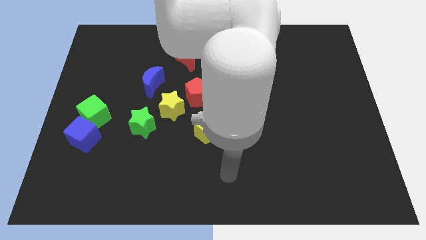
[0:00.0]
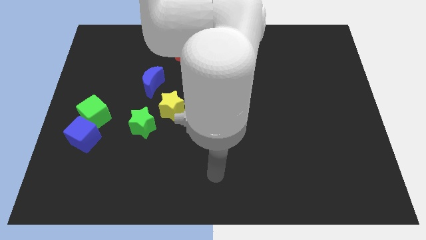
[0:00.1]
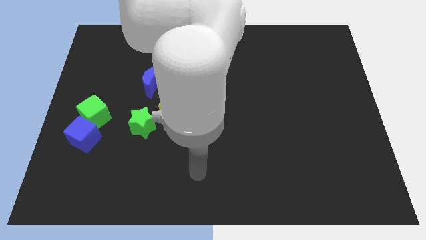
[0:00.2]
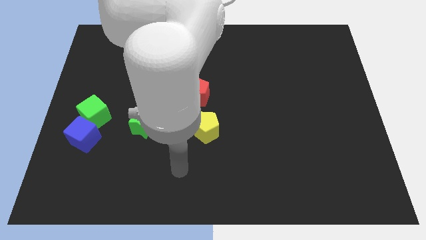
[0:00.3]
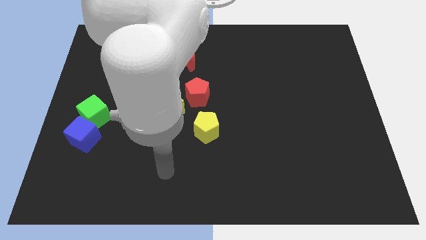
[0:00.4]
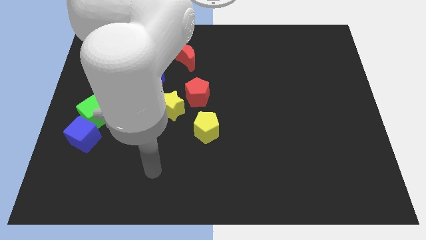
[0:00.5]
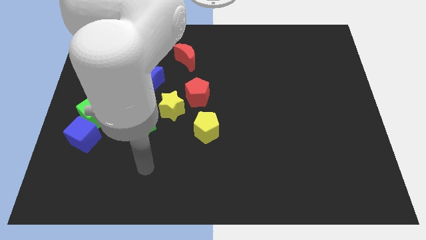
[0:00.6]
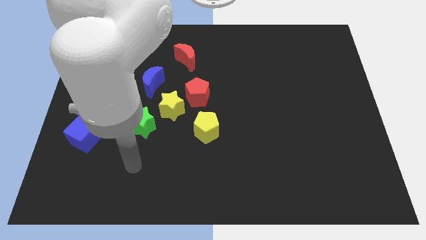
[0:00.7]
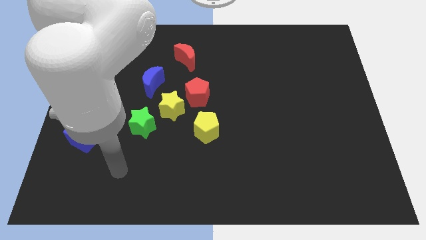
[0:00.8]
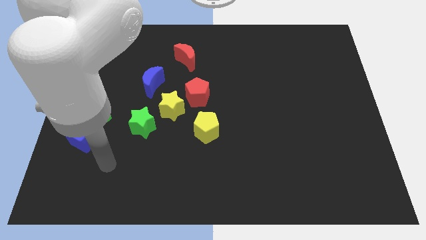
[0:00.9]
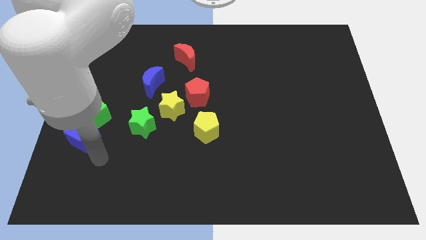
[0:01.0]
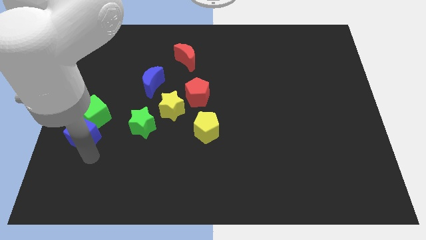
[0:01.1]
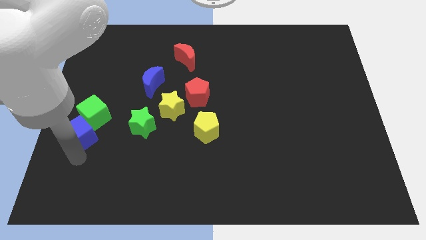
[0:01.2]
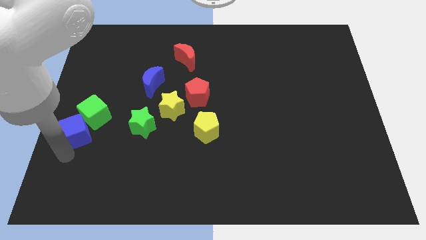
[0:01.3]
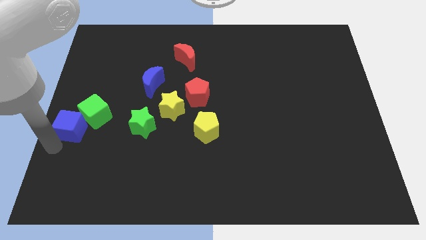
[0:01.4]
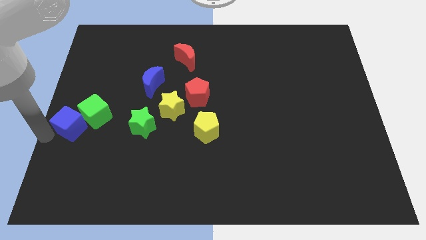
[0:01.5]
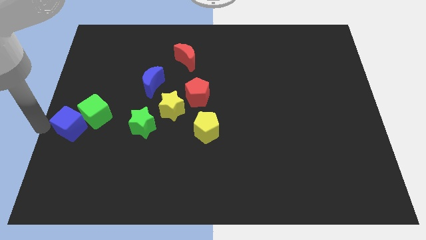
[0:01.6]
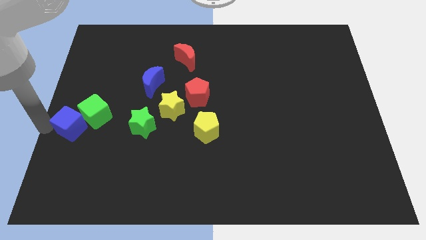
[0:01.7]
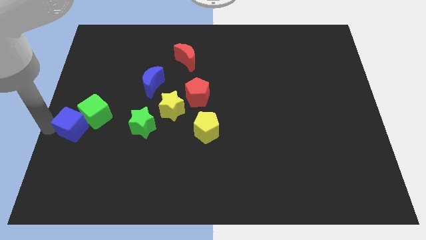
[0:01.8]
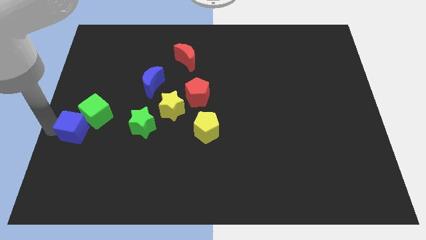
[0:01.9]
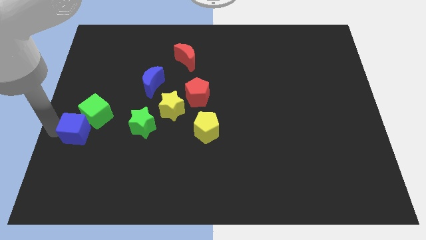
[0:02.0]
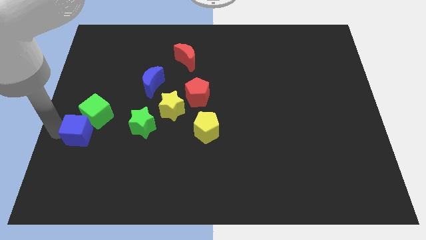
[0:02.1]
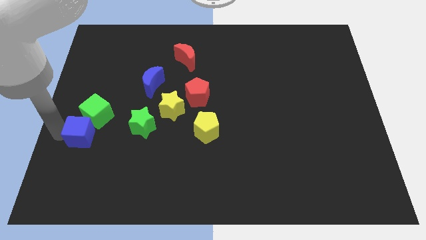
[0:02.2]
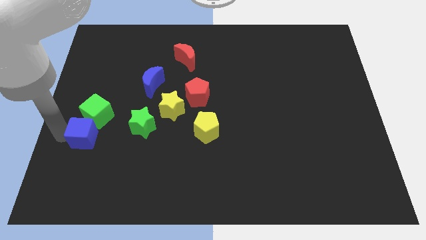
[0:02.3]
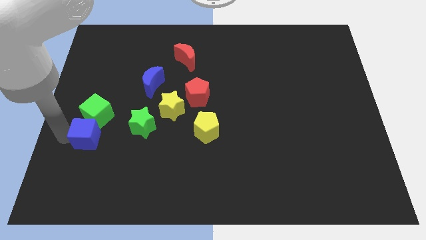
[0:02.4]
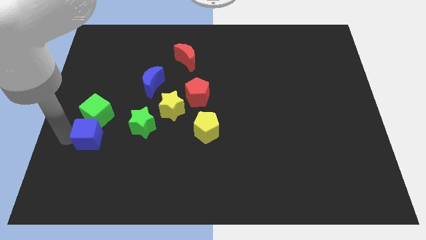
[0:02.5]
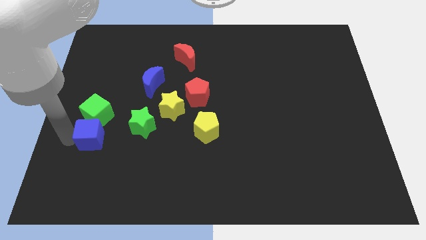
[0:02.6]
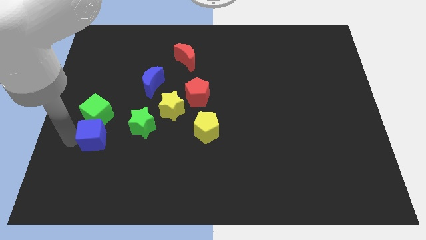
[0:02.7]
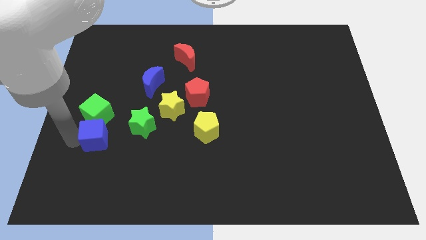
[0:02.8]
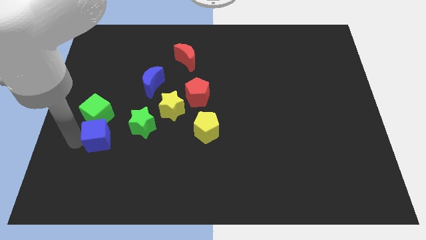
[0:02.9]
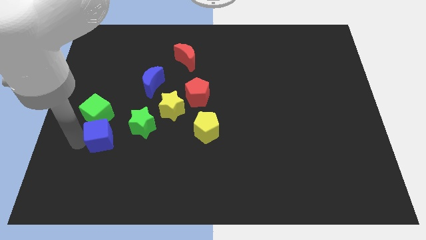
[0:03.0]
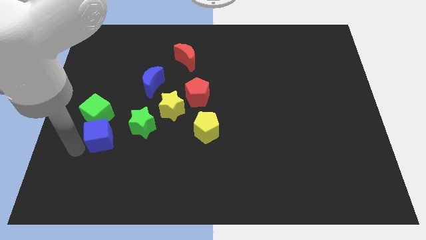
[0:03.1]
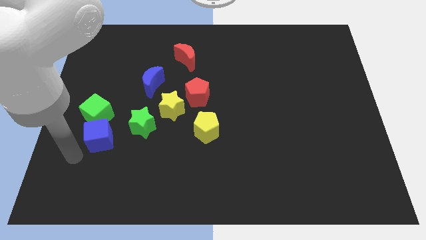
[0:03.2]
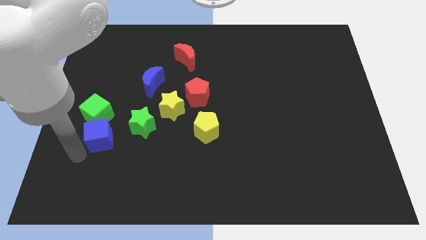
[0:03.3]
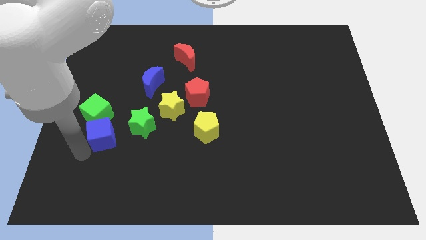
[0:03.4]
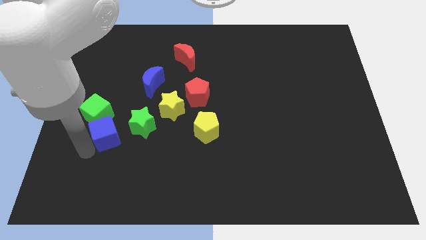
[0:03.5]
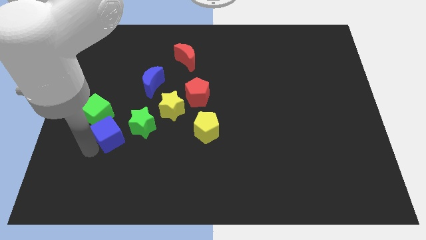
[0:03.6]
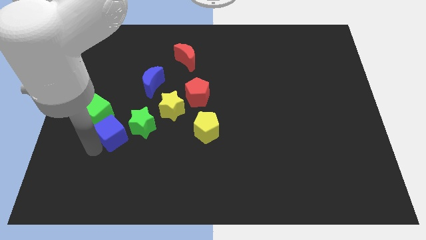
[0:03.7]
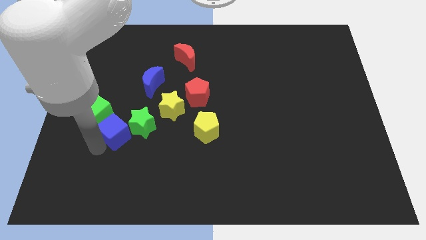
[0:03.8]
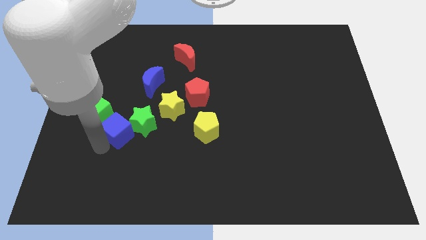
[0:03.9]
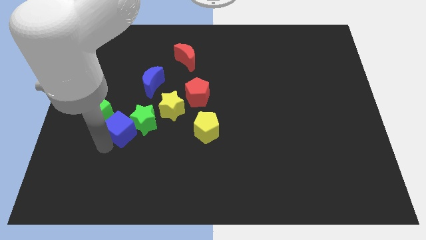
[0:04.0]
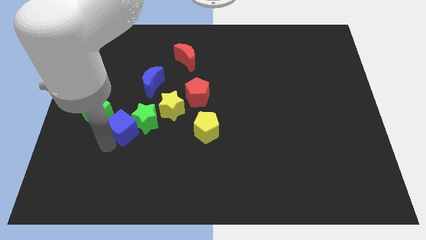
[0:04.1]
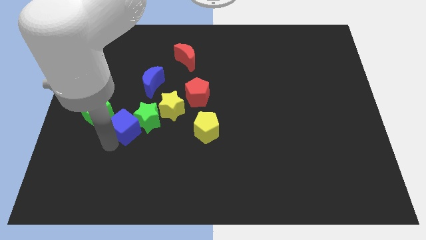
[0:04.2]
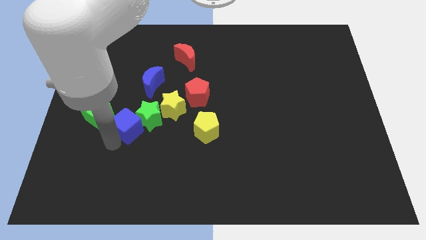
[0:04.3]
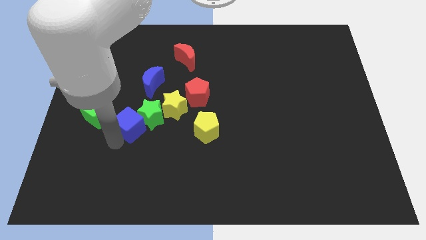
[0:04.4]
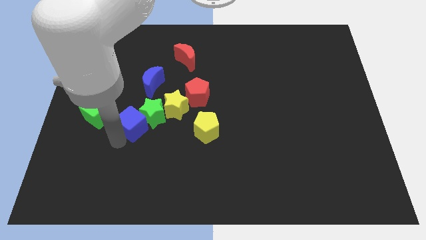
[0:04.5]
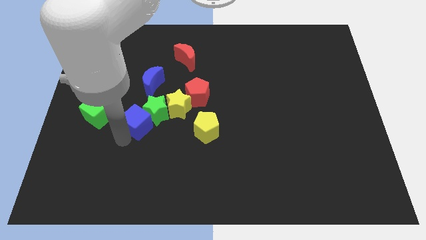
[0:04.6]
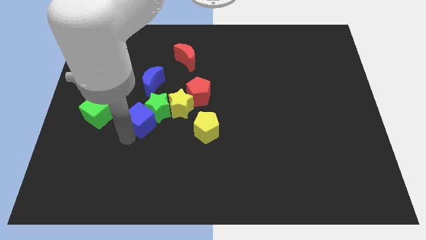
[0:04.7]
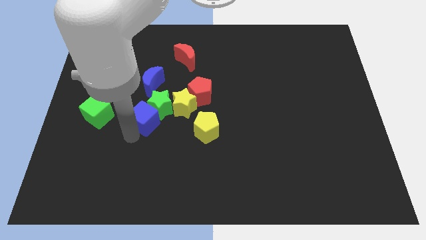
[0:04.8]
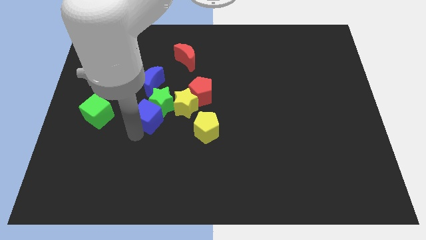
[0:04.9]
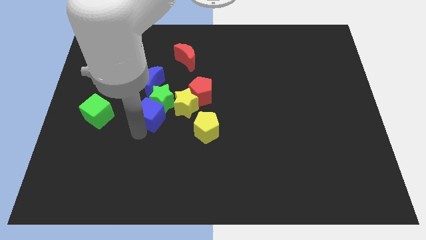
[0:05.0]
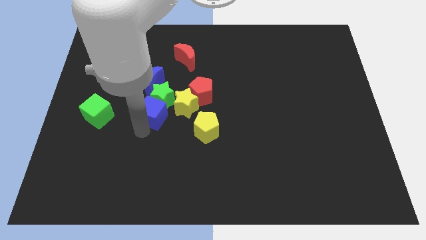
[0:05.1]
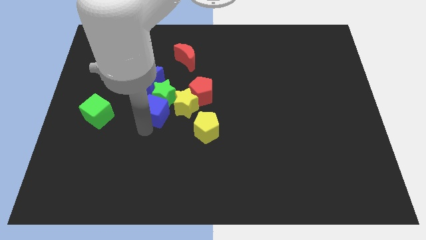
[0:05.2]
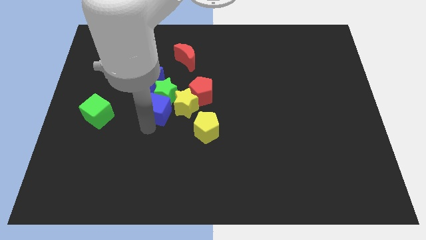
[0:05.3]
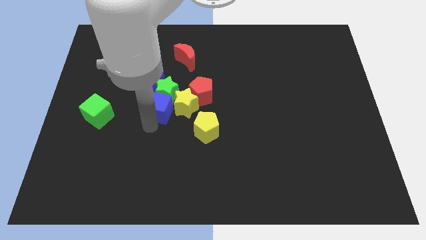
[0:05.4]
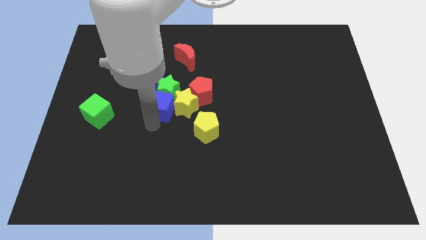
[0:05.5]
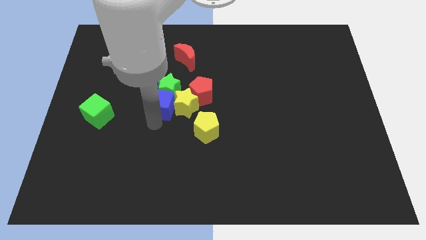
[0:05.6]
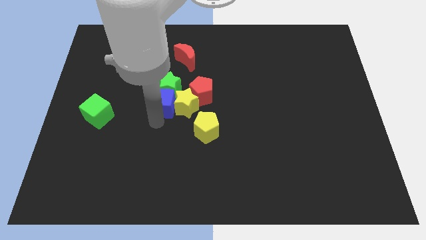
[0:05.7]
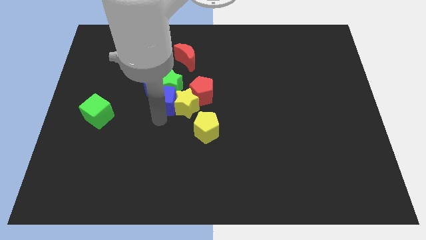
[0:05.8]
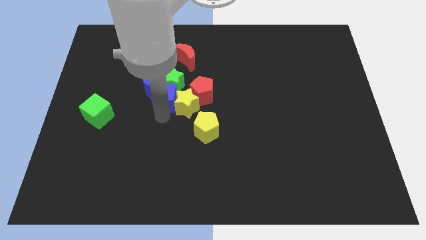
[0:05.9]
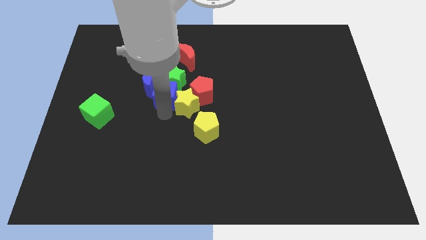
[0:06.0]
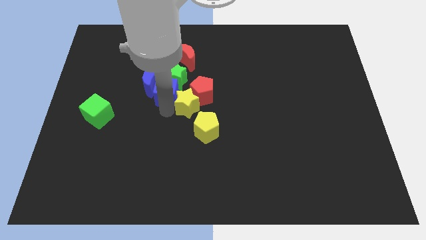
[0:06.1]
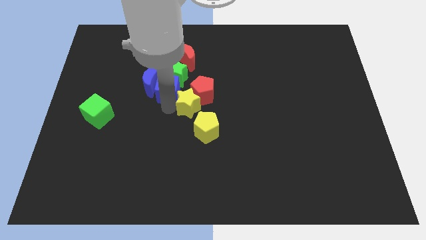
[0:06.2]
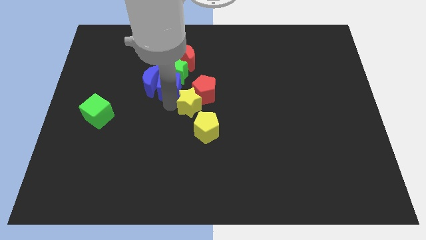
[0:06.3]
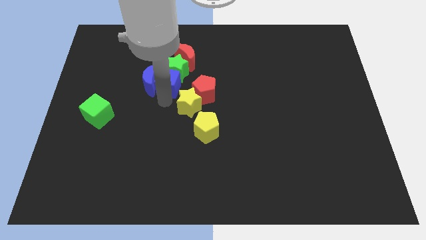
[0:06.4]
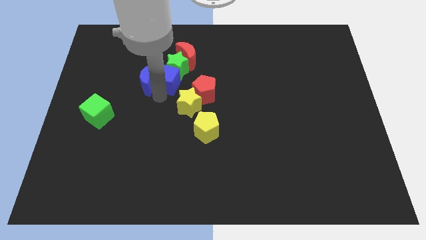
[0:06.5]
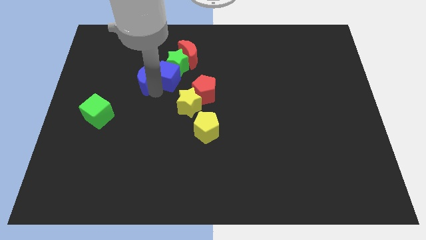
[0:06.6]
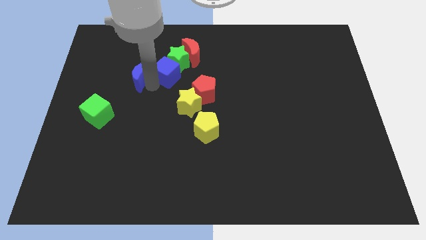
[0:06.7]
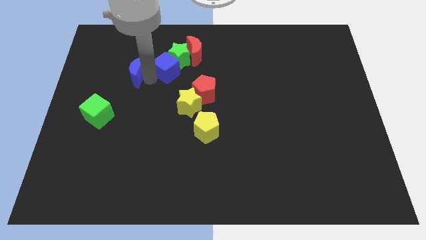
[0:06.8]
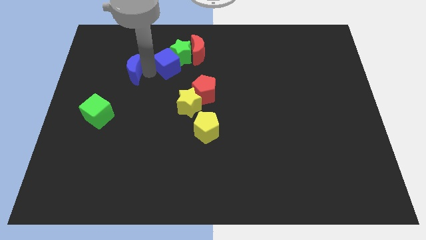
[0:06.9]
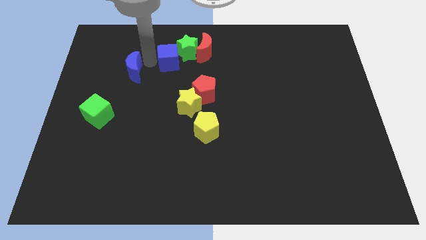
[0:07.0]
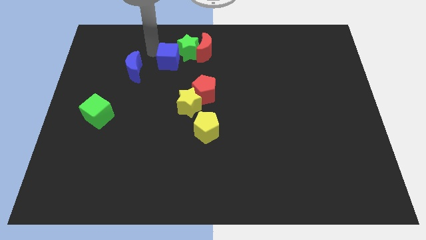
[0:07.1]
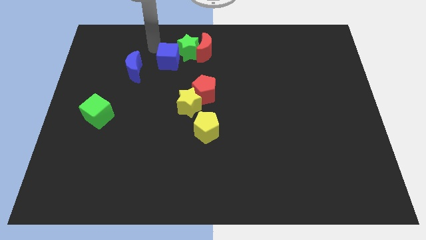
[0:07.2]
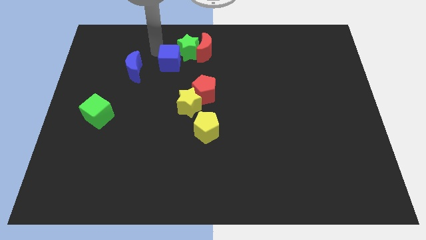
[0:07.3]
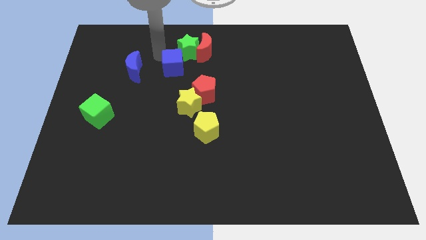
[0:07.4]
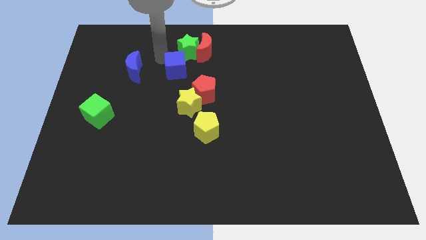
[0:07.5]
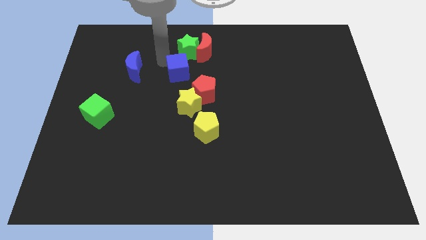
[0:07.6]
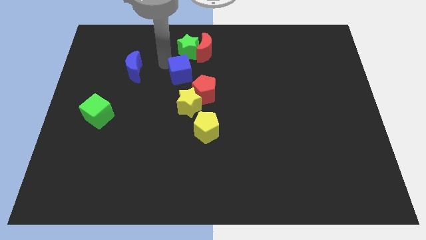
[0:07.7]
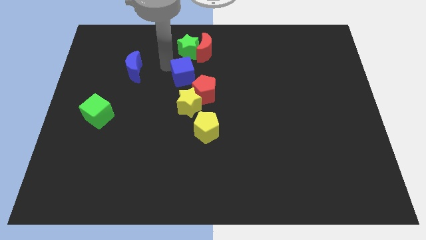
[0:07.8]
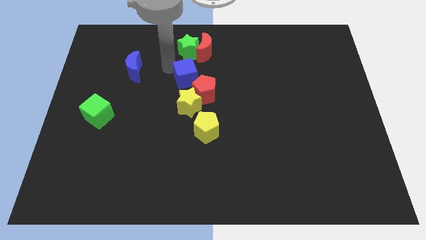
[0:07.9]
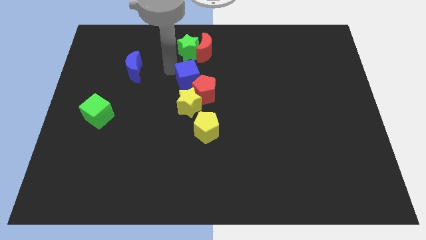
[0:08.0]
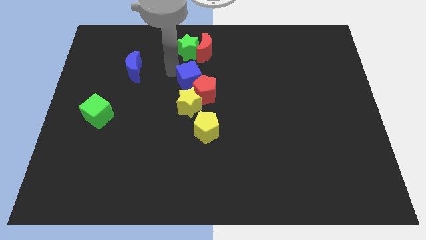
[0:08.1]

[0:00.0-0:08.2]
push the blue cube towards the red pentagon
